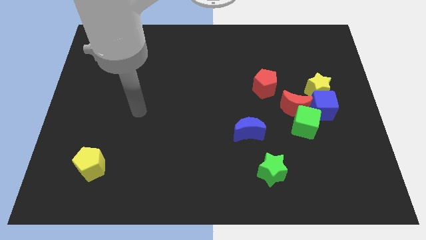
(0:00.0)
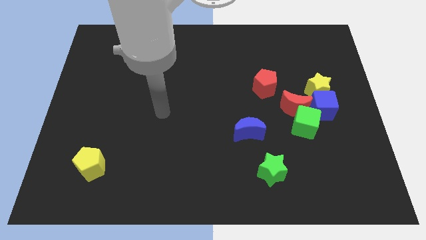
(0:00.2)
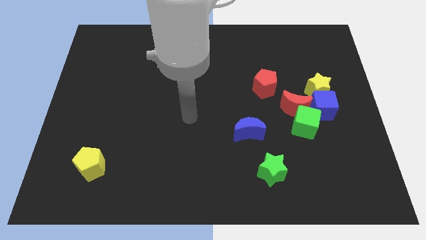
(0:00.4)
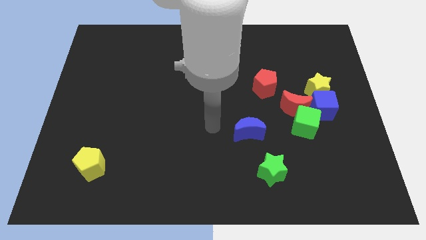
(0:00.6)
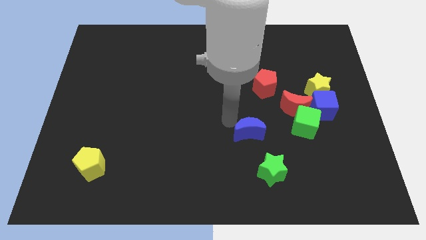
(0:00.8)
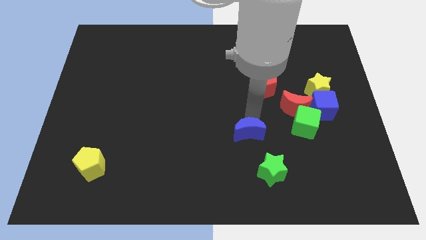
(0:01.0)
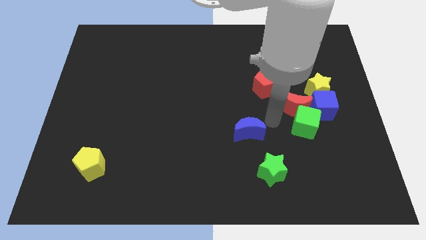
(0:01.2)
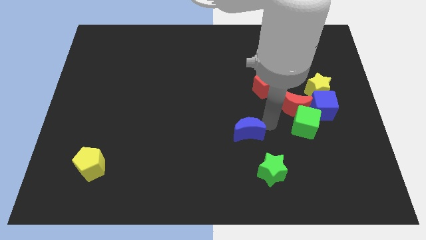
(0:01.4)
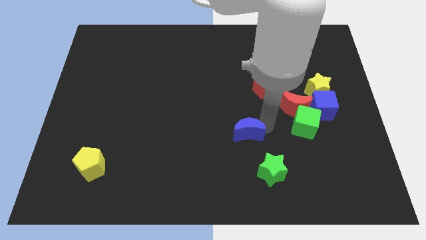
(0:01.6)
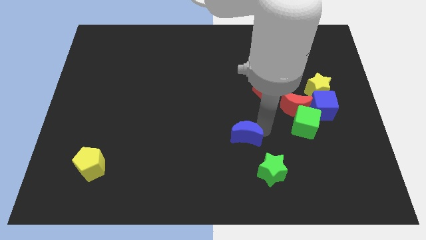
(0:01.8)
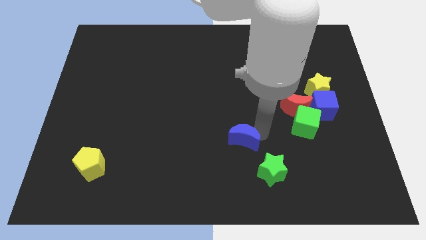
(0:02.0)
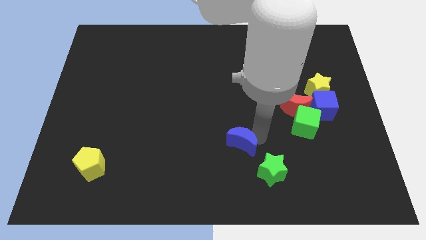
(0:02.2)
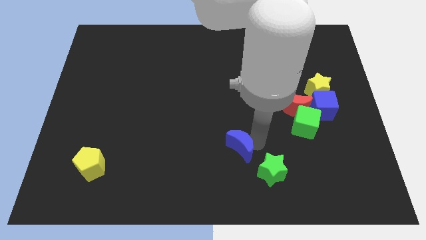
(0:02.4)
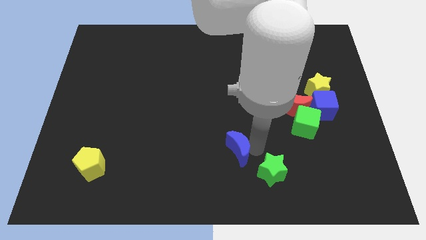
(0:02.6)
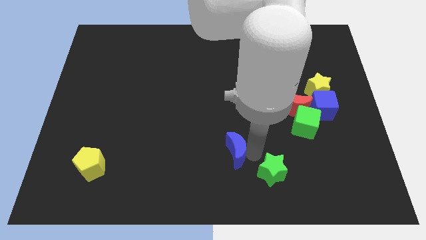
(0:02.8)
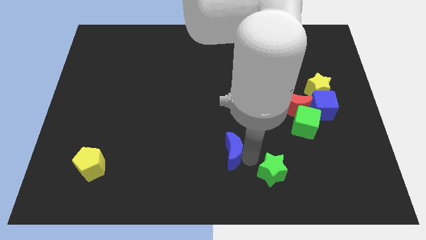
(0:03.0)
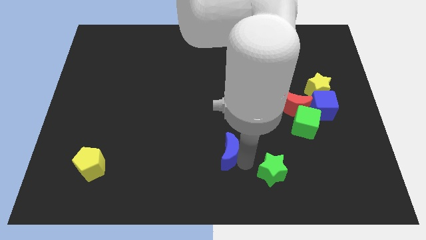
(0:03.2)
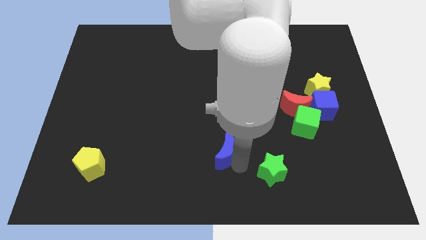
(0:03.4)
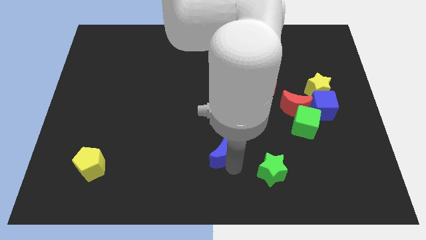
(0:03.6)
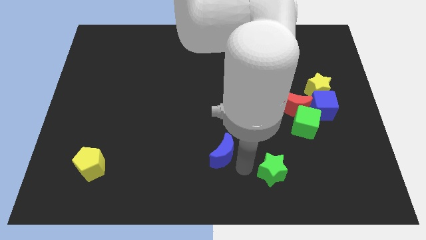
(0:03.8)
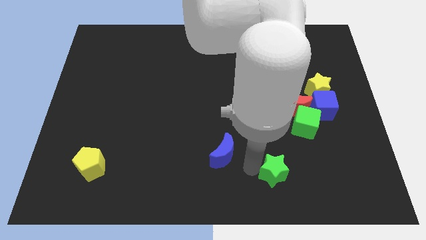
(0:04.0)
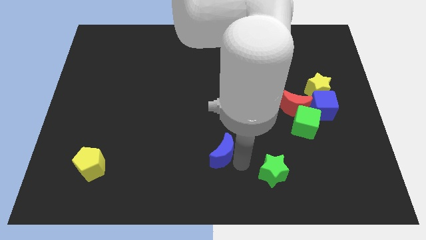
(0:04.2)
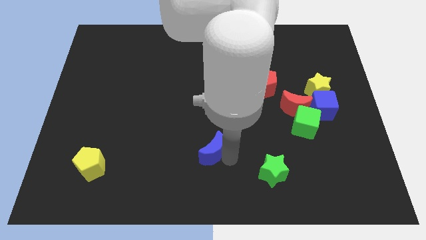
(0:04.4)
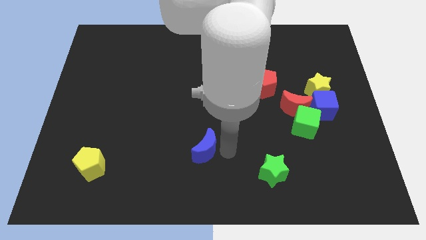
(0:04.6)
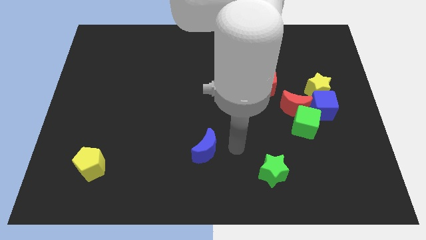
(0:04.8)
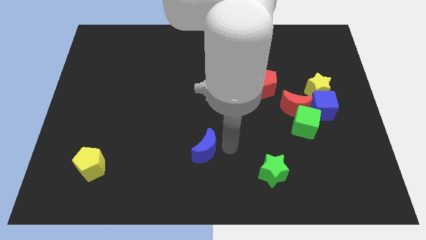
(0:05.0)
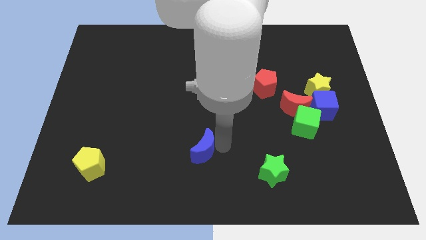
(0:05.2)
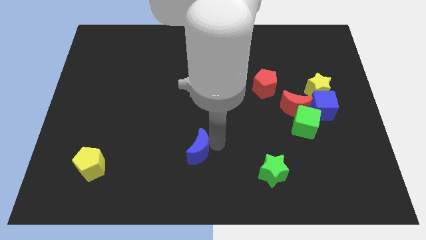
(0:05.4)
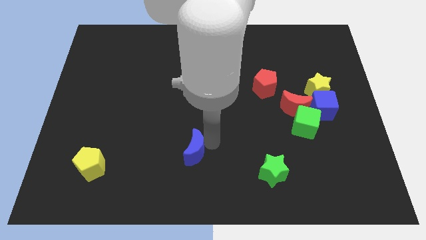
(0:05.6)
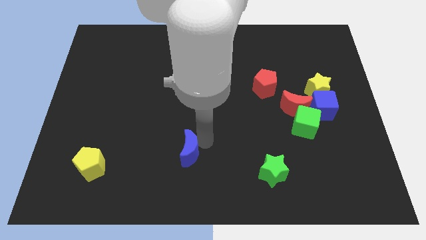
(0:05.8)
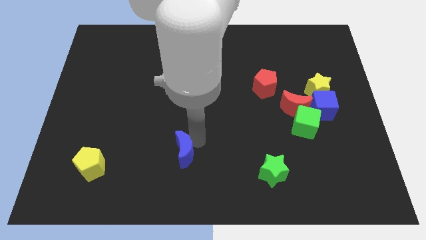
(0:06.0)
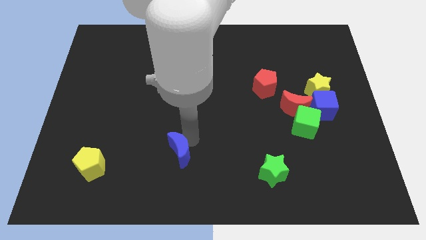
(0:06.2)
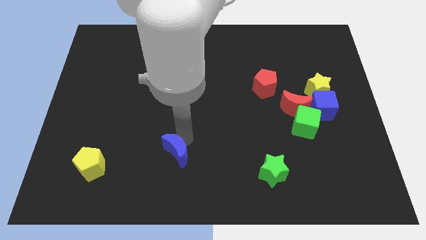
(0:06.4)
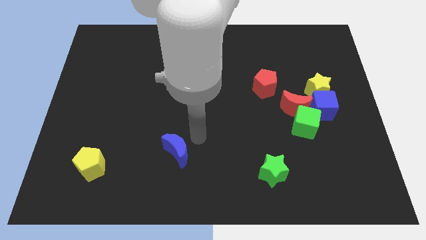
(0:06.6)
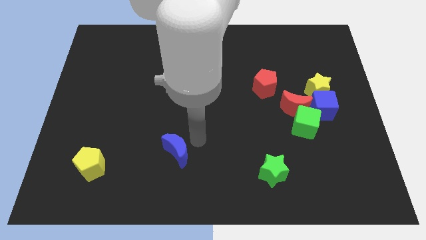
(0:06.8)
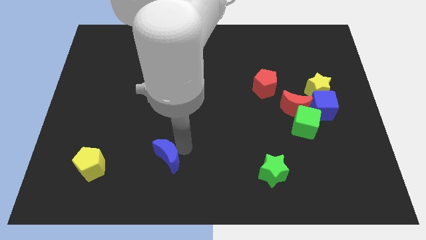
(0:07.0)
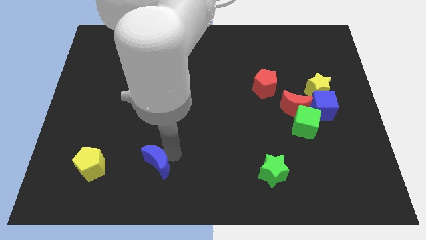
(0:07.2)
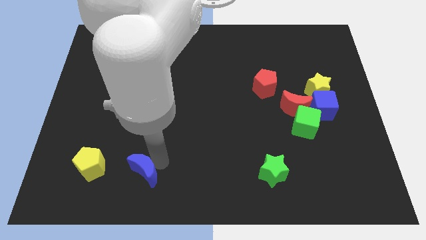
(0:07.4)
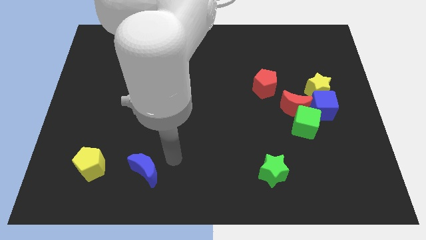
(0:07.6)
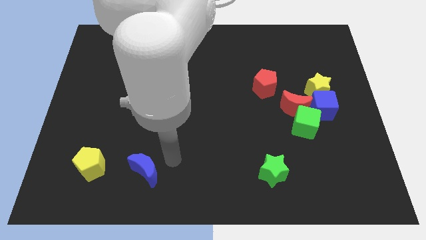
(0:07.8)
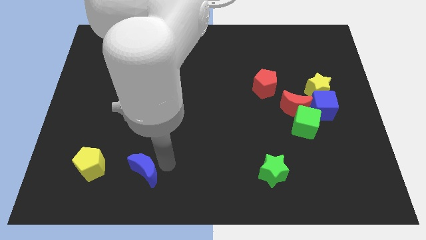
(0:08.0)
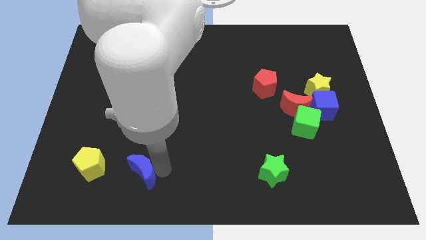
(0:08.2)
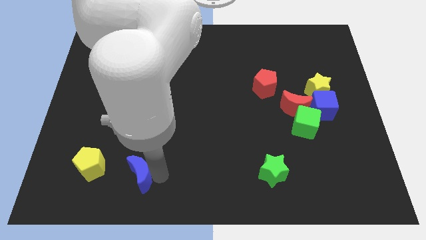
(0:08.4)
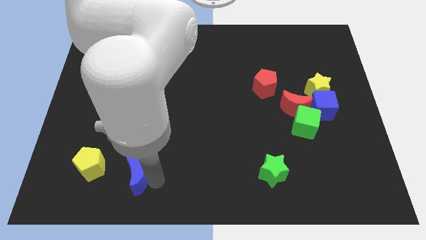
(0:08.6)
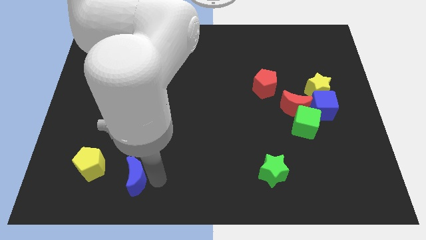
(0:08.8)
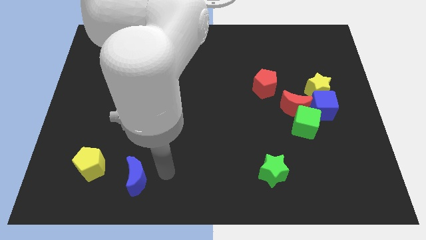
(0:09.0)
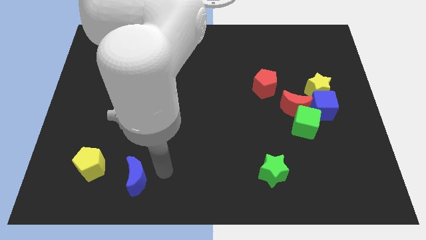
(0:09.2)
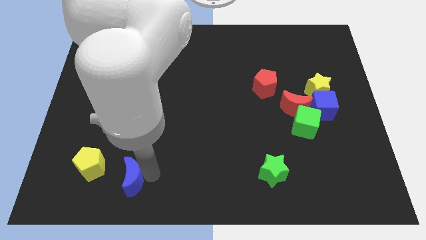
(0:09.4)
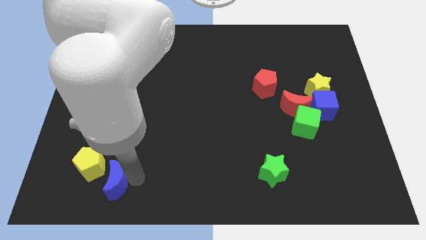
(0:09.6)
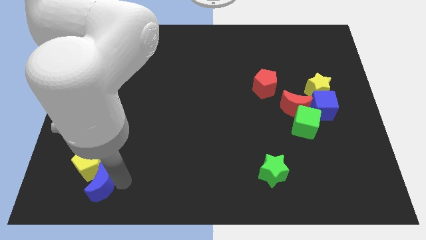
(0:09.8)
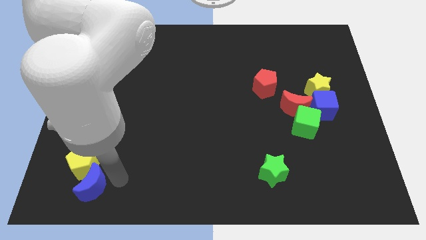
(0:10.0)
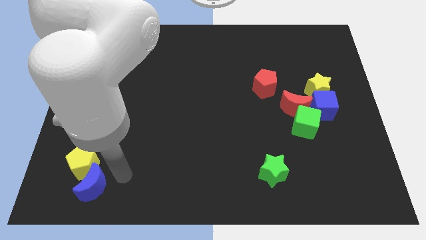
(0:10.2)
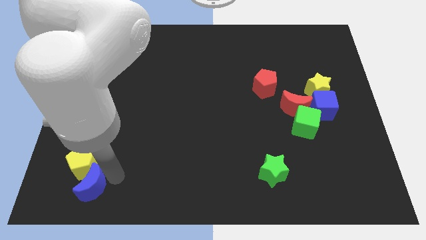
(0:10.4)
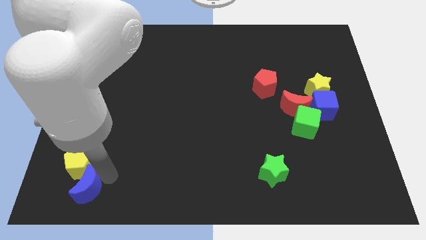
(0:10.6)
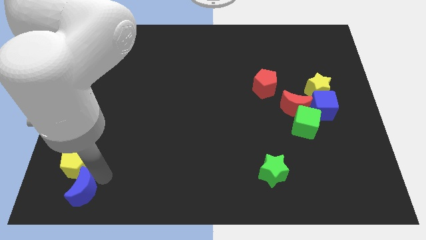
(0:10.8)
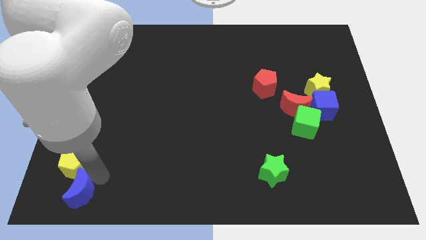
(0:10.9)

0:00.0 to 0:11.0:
put the blue moon to the bottom left corner
